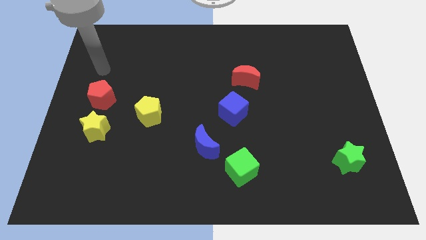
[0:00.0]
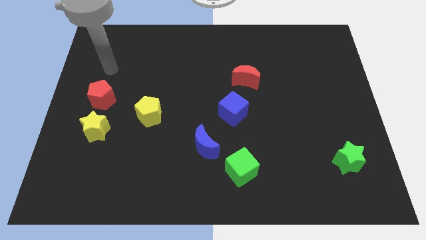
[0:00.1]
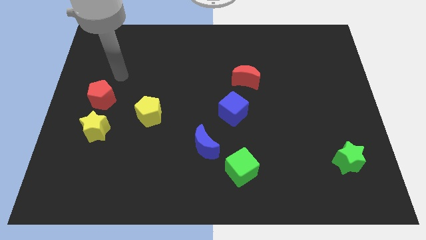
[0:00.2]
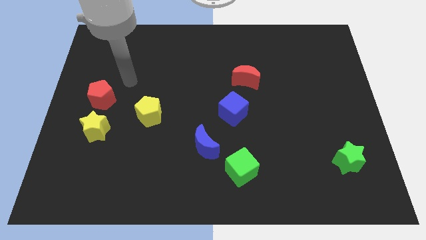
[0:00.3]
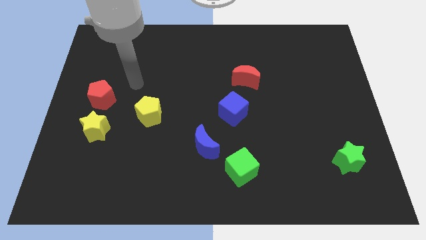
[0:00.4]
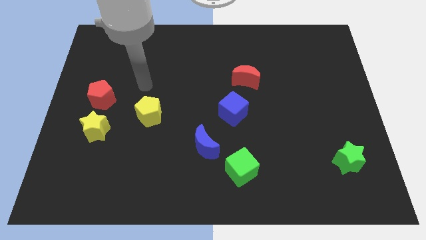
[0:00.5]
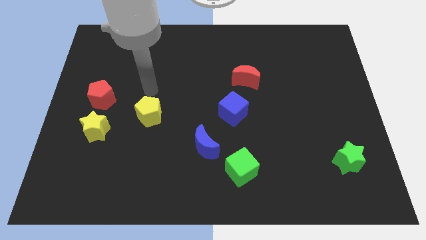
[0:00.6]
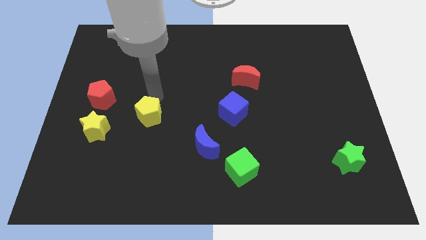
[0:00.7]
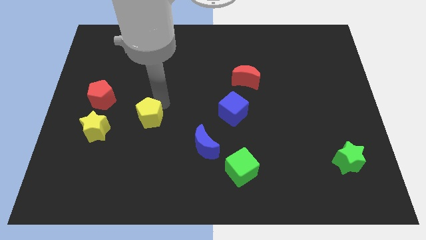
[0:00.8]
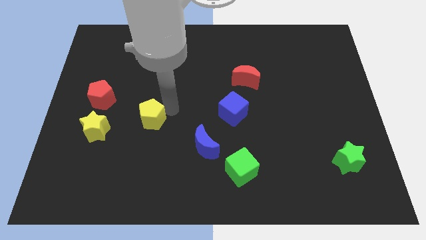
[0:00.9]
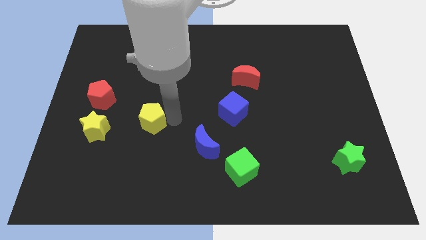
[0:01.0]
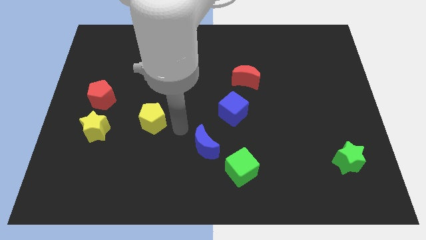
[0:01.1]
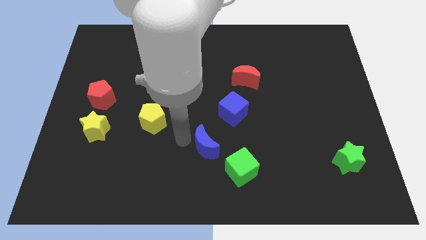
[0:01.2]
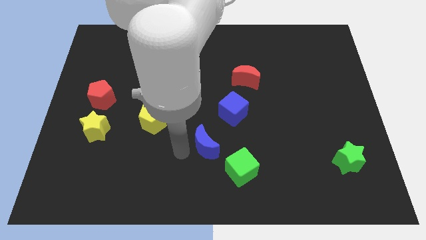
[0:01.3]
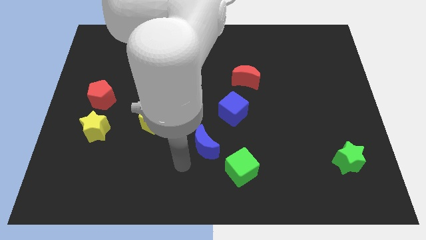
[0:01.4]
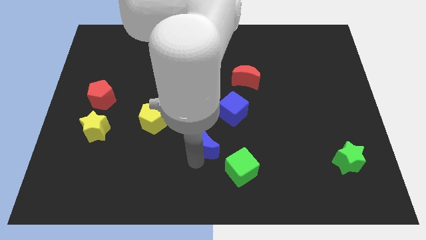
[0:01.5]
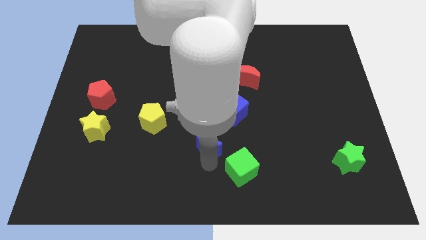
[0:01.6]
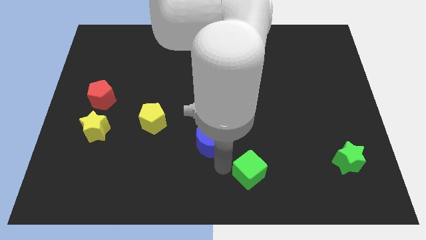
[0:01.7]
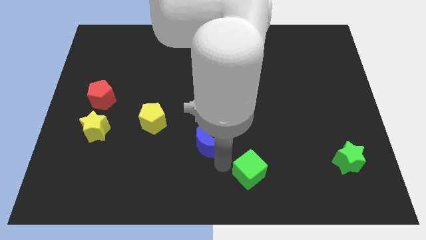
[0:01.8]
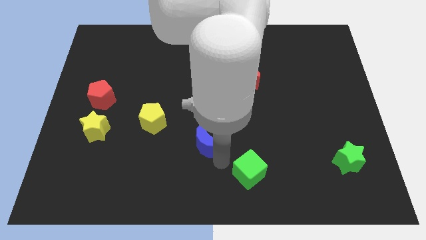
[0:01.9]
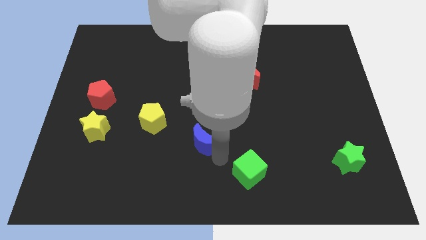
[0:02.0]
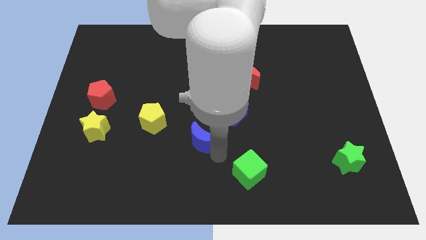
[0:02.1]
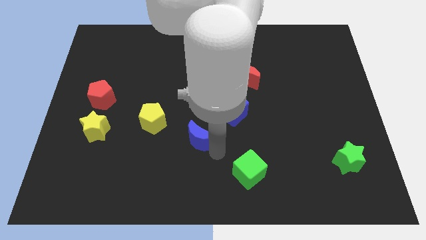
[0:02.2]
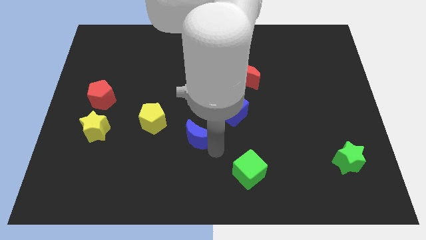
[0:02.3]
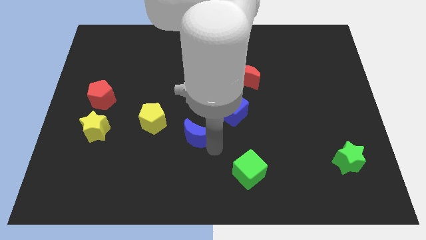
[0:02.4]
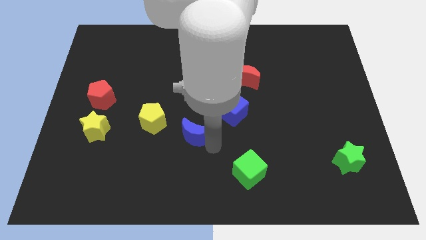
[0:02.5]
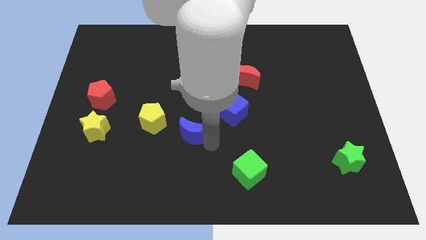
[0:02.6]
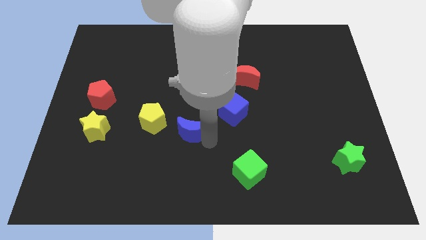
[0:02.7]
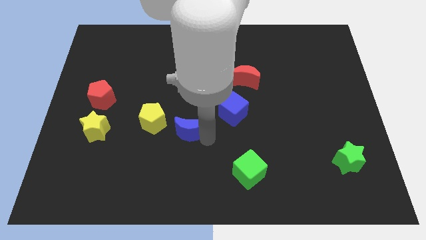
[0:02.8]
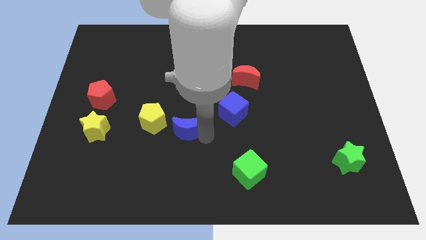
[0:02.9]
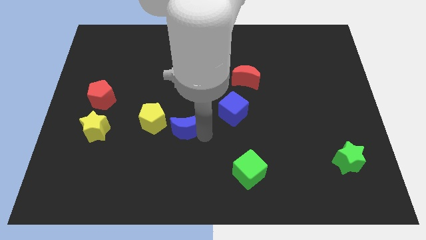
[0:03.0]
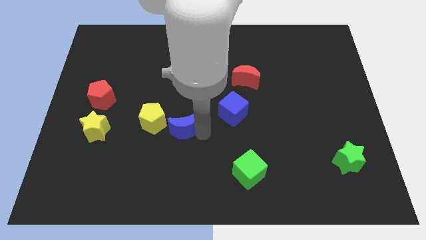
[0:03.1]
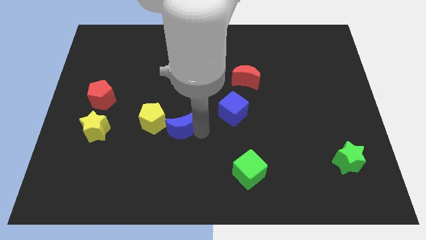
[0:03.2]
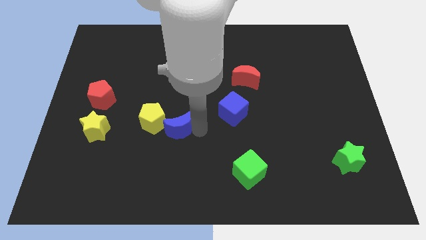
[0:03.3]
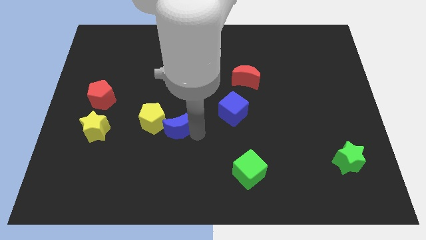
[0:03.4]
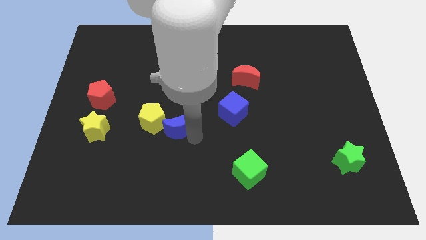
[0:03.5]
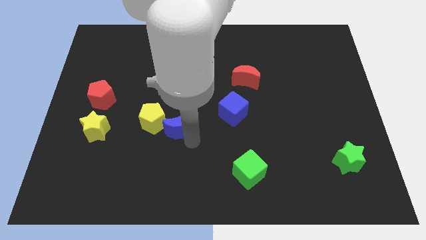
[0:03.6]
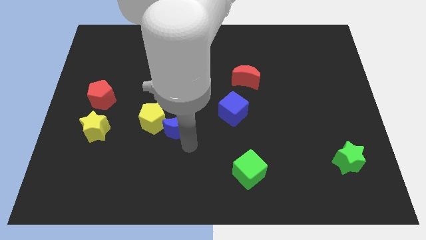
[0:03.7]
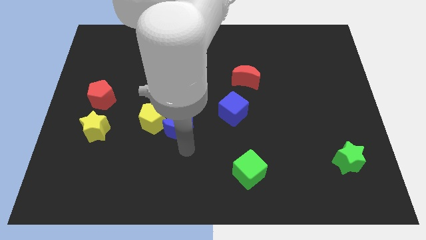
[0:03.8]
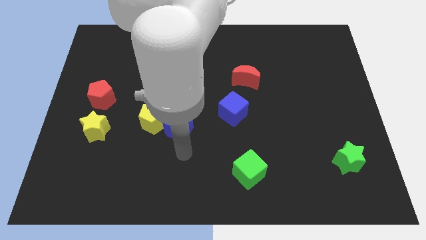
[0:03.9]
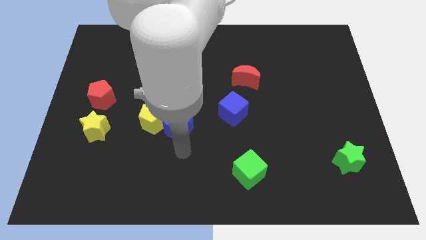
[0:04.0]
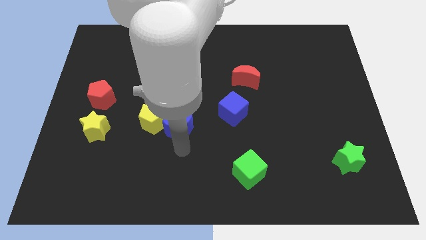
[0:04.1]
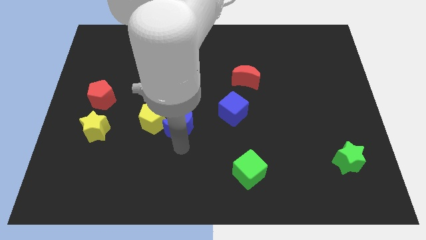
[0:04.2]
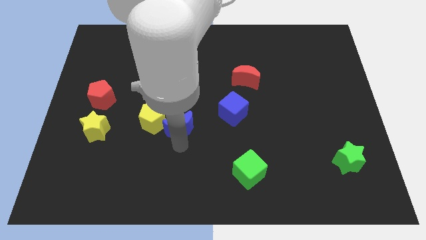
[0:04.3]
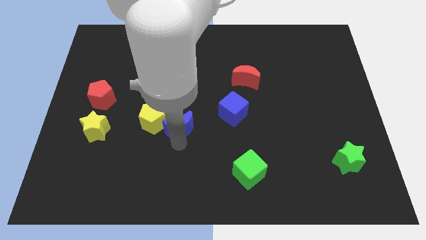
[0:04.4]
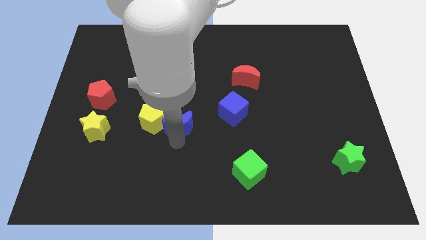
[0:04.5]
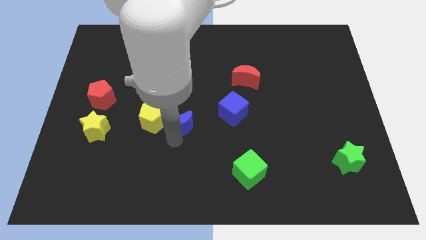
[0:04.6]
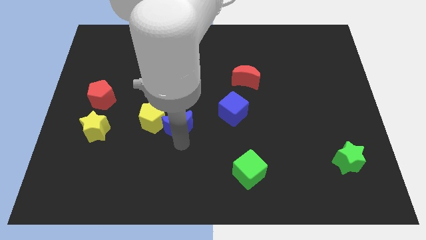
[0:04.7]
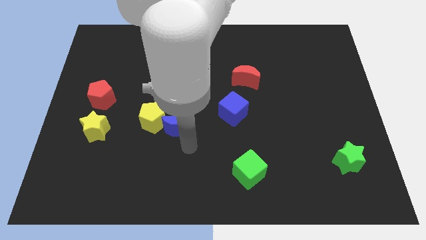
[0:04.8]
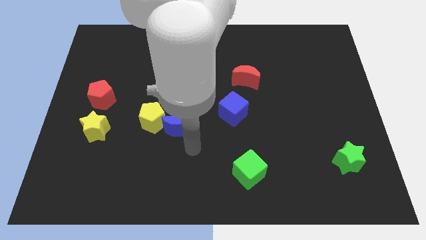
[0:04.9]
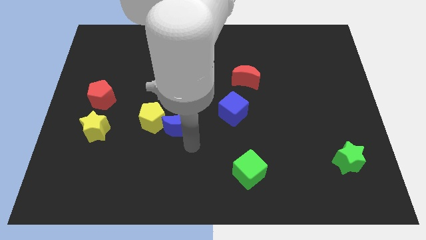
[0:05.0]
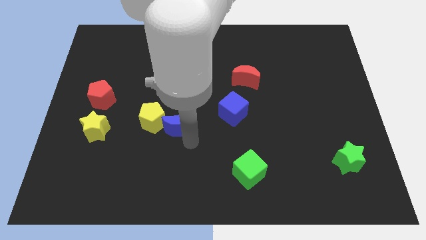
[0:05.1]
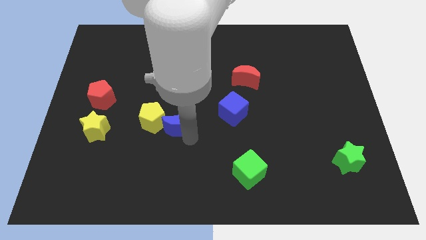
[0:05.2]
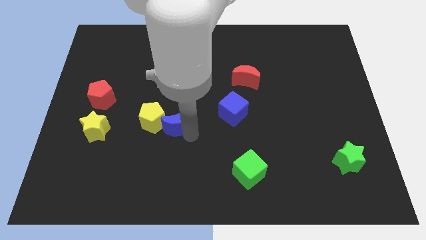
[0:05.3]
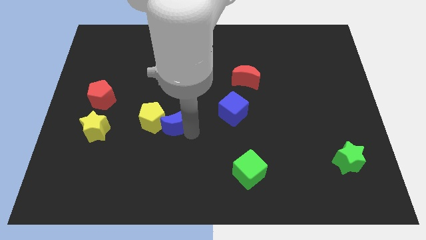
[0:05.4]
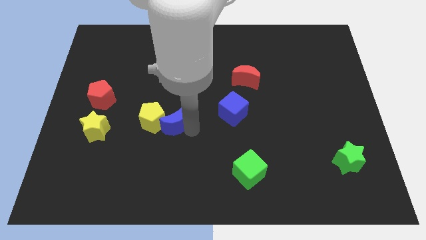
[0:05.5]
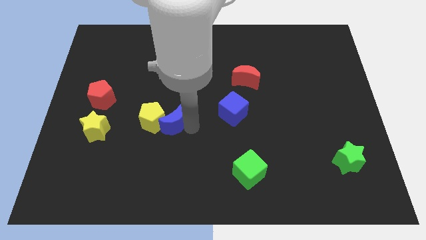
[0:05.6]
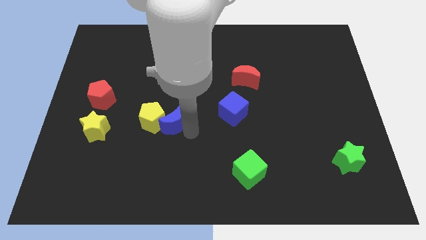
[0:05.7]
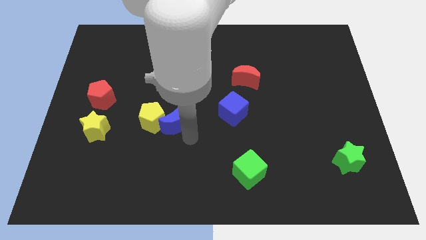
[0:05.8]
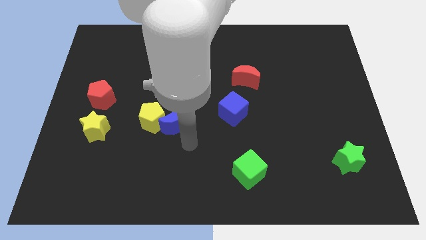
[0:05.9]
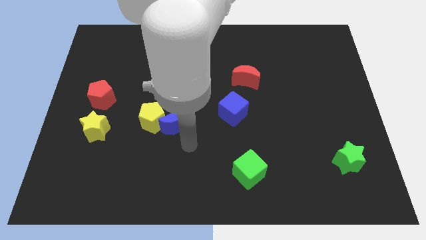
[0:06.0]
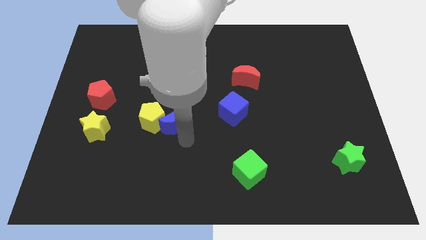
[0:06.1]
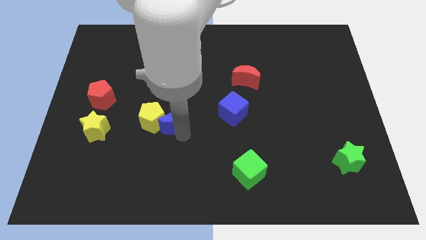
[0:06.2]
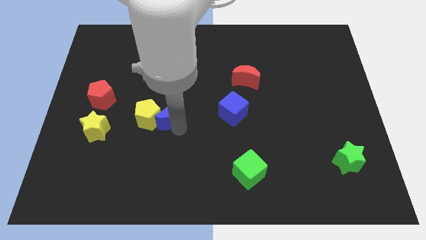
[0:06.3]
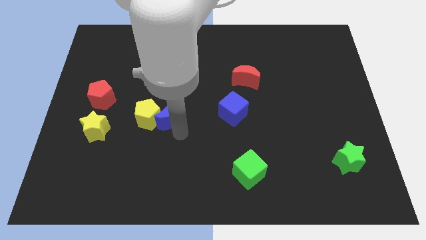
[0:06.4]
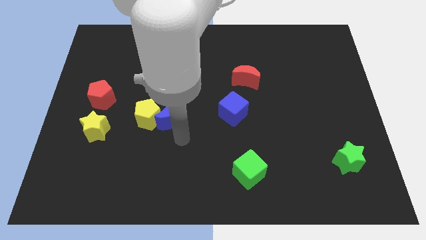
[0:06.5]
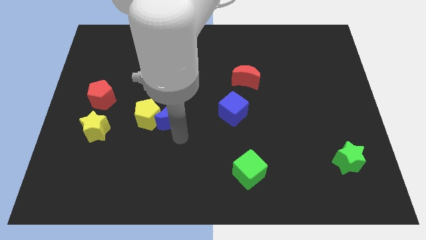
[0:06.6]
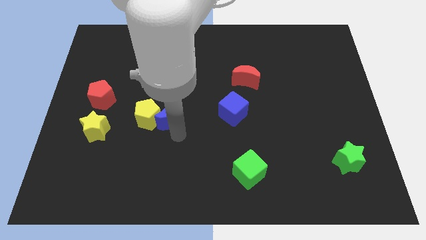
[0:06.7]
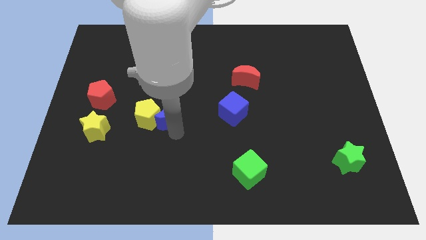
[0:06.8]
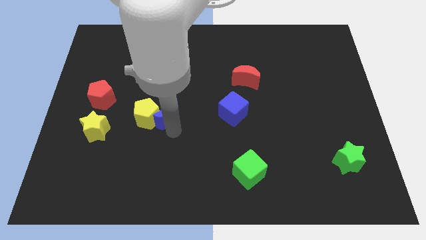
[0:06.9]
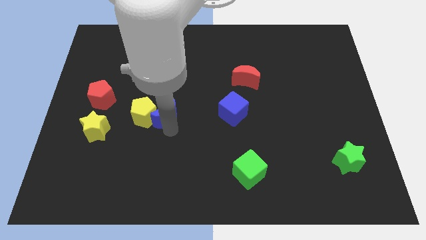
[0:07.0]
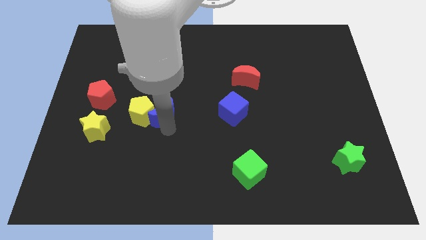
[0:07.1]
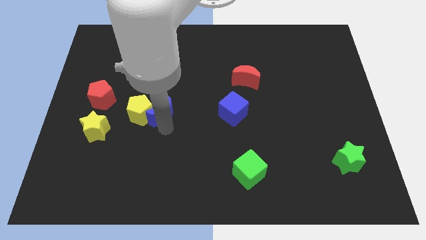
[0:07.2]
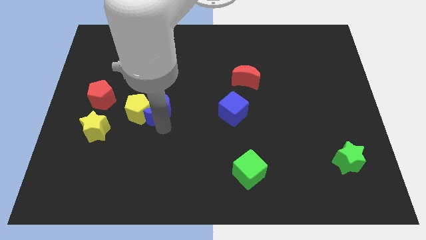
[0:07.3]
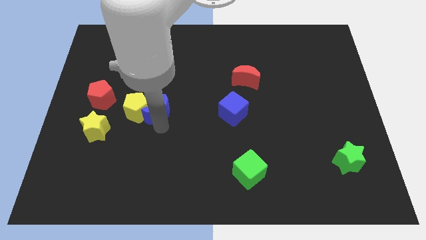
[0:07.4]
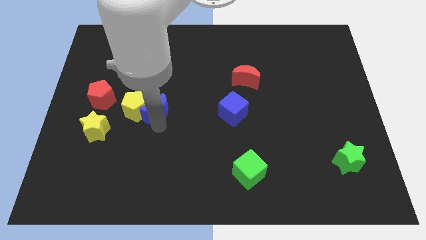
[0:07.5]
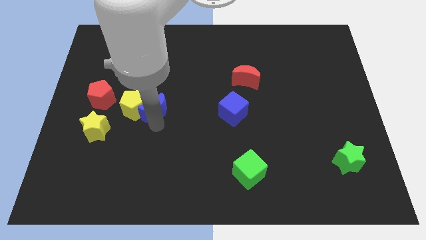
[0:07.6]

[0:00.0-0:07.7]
slide the blue moon to the right side of the red pentagon
